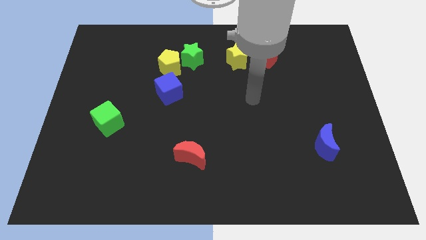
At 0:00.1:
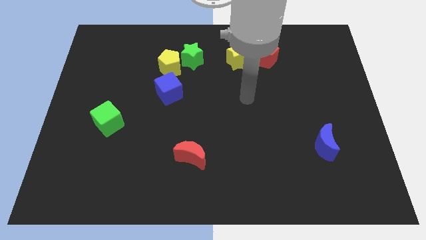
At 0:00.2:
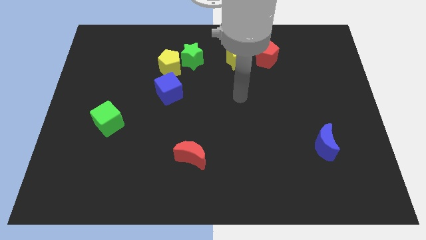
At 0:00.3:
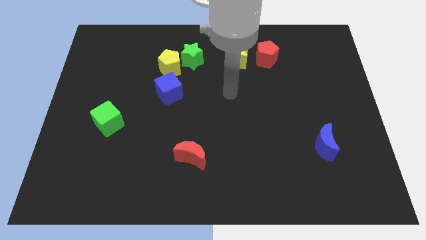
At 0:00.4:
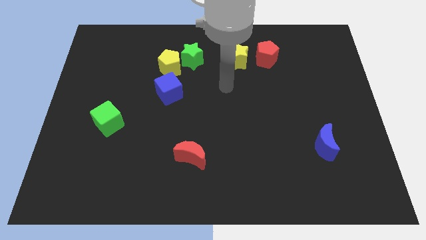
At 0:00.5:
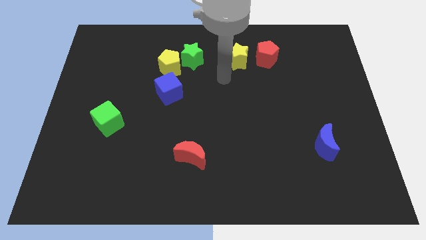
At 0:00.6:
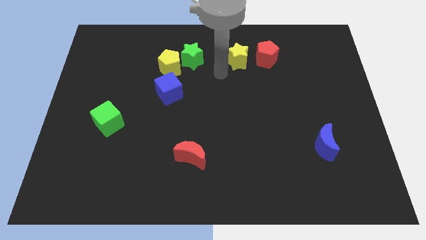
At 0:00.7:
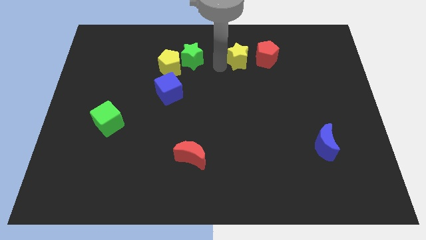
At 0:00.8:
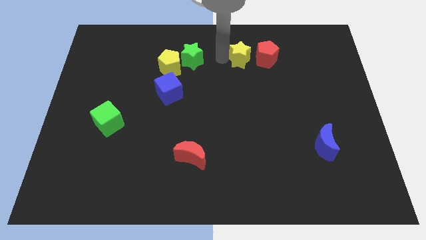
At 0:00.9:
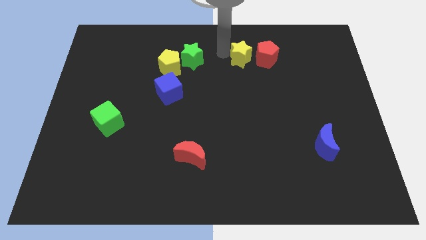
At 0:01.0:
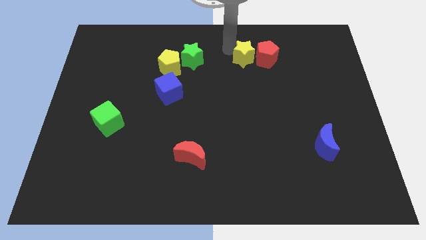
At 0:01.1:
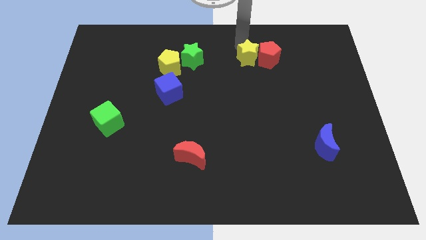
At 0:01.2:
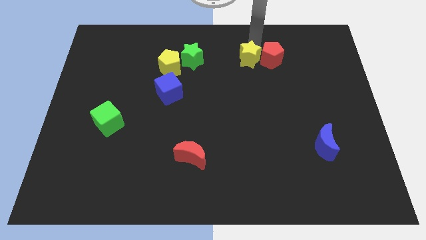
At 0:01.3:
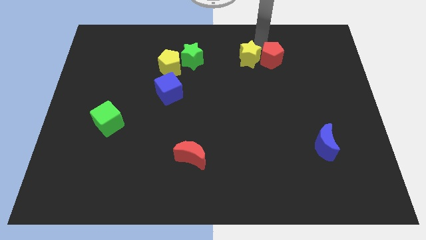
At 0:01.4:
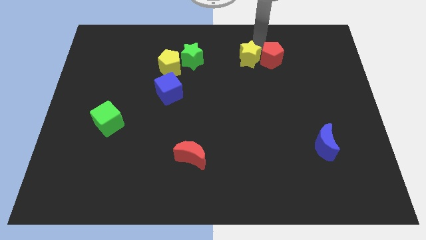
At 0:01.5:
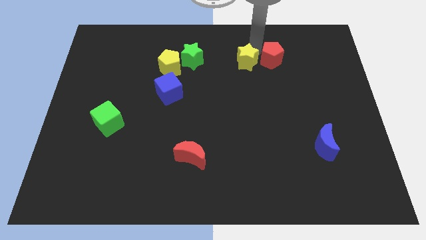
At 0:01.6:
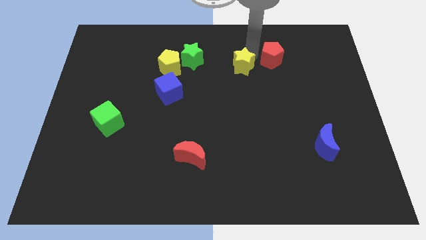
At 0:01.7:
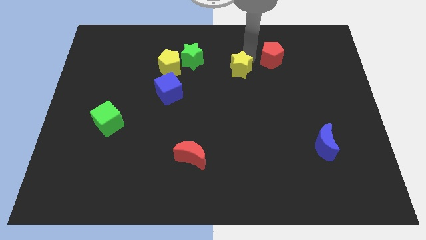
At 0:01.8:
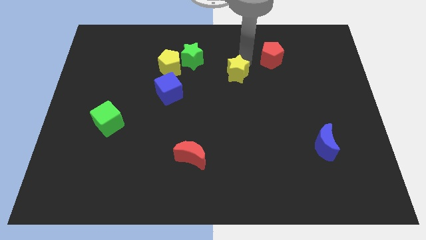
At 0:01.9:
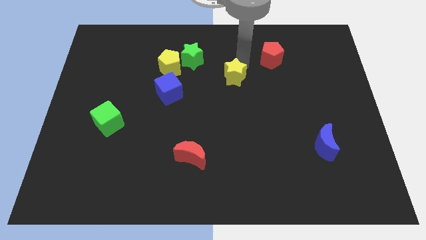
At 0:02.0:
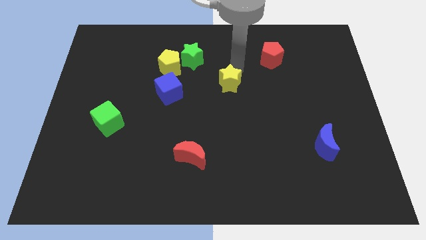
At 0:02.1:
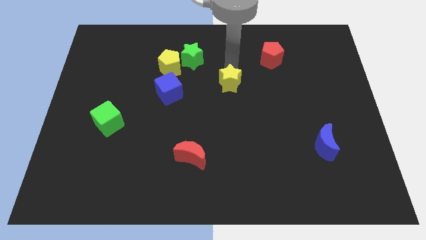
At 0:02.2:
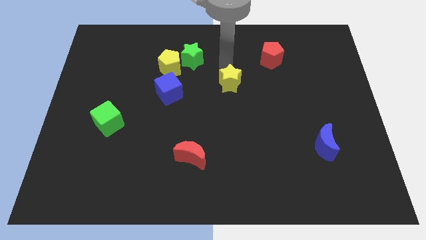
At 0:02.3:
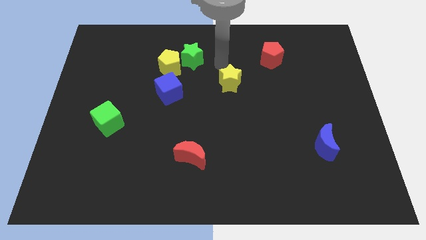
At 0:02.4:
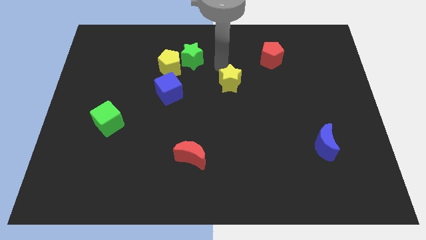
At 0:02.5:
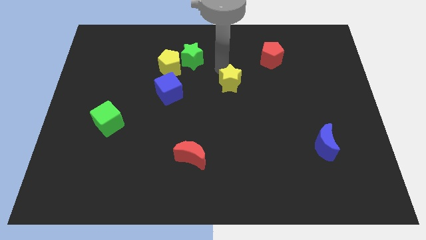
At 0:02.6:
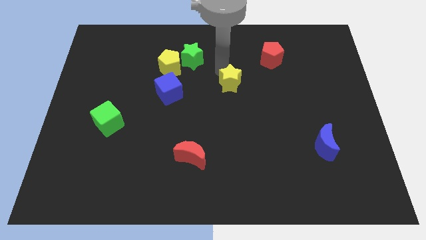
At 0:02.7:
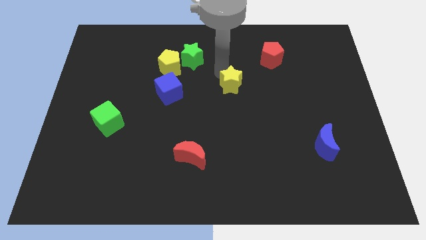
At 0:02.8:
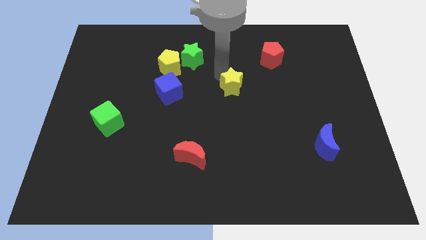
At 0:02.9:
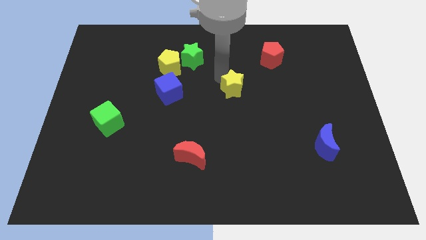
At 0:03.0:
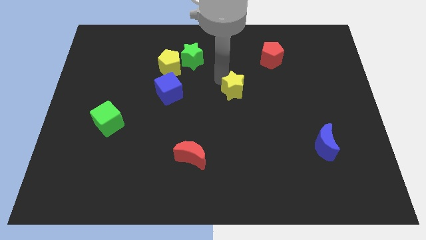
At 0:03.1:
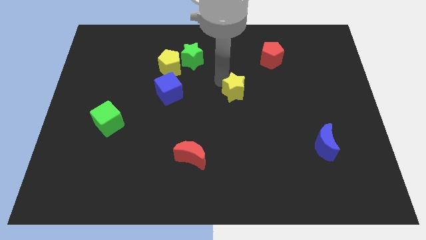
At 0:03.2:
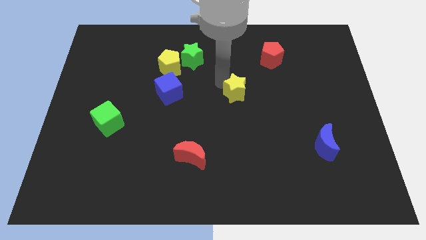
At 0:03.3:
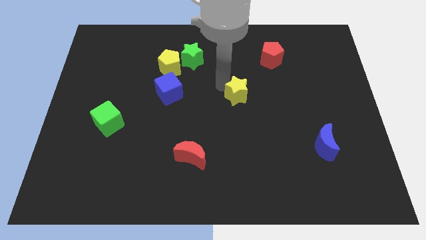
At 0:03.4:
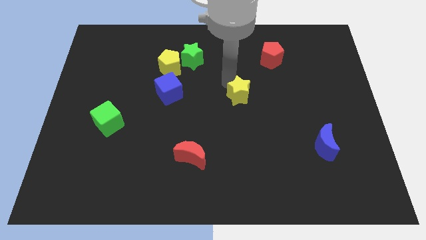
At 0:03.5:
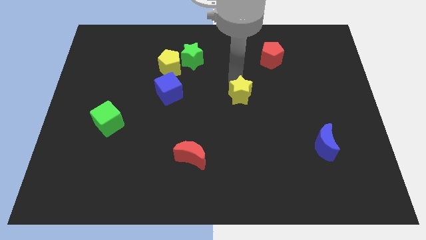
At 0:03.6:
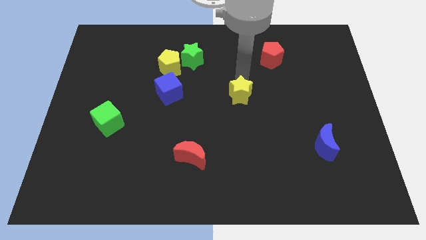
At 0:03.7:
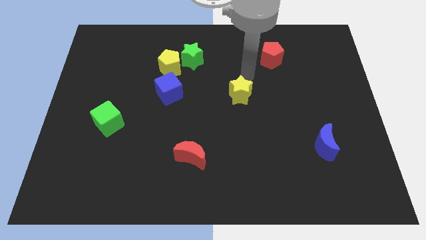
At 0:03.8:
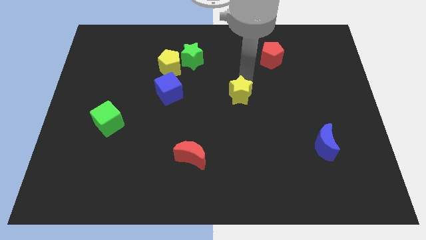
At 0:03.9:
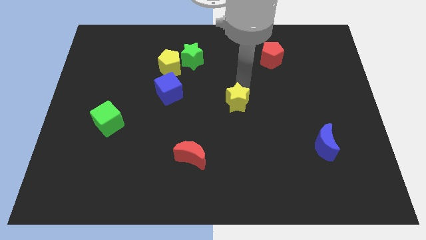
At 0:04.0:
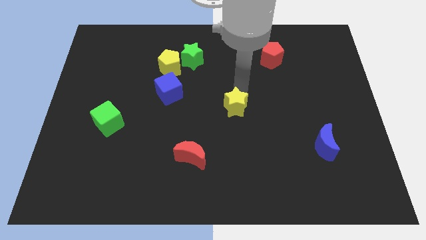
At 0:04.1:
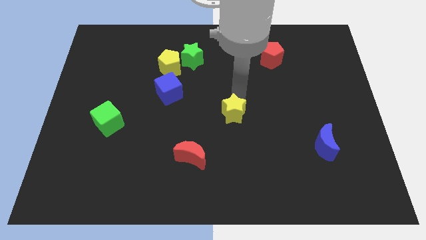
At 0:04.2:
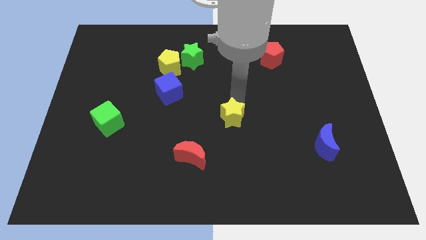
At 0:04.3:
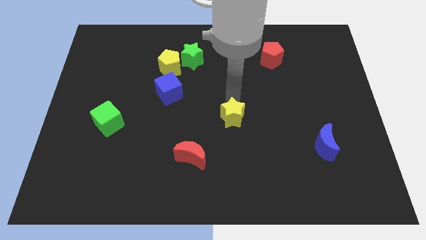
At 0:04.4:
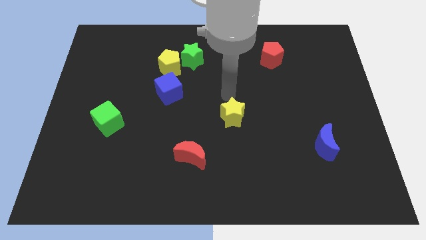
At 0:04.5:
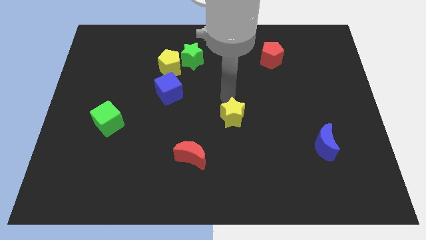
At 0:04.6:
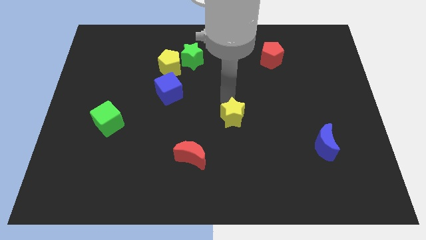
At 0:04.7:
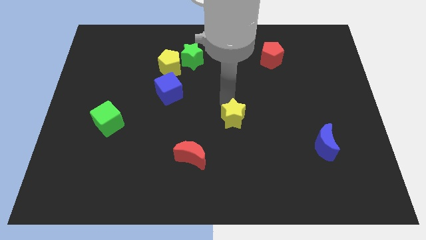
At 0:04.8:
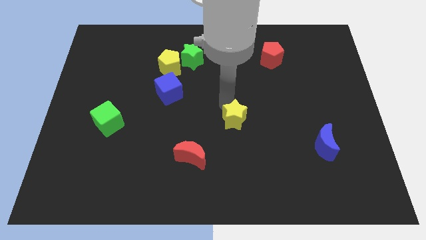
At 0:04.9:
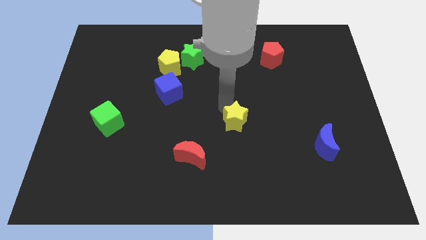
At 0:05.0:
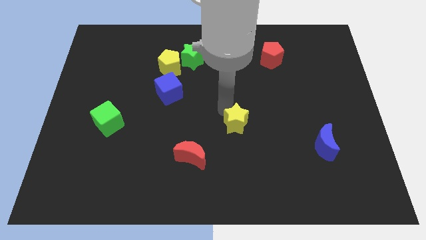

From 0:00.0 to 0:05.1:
push the yellow star down

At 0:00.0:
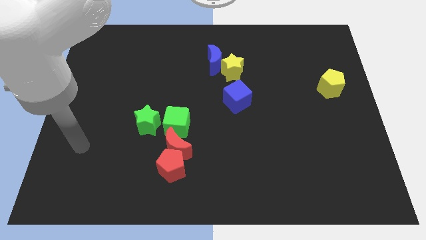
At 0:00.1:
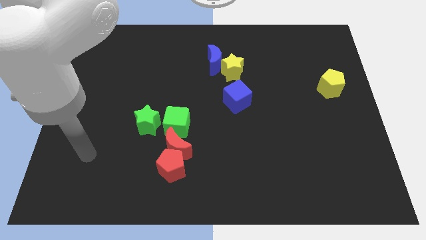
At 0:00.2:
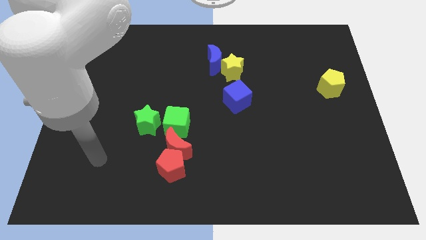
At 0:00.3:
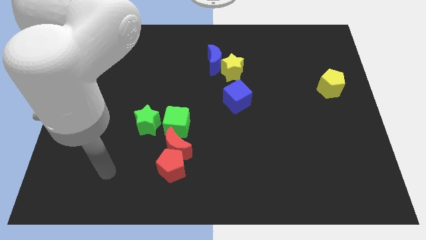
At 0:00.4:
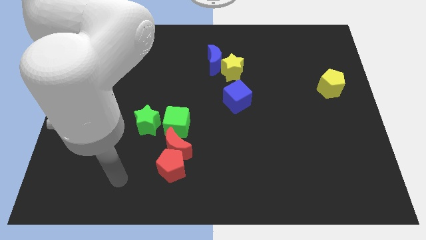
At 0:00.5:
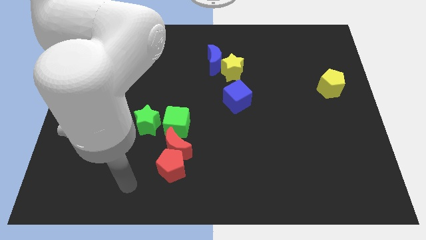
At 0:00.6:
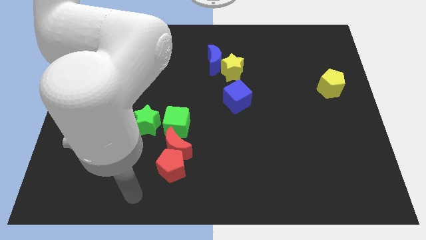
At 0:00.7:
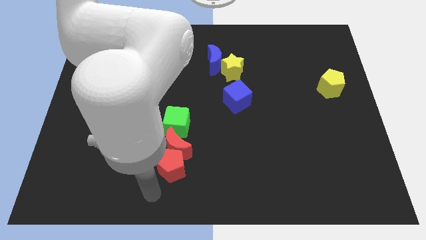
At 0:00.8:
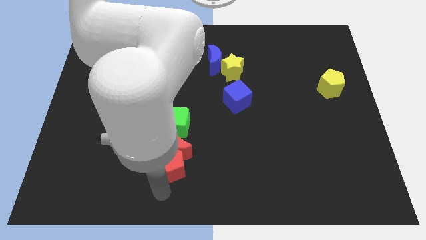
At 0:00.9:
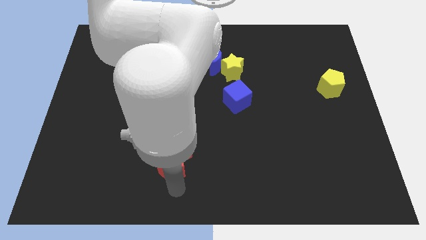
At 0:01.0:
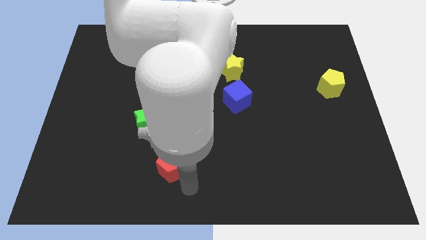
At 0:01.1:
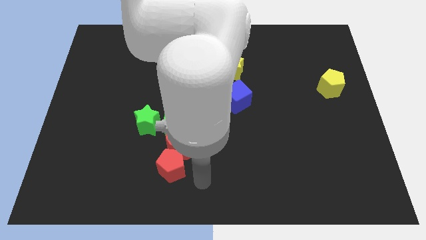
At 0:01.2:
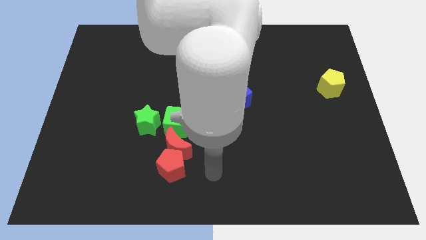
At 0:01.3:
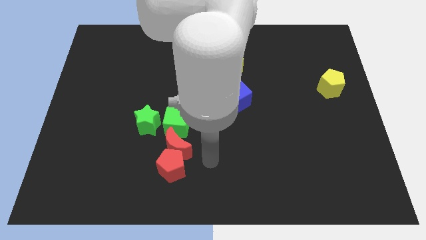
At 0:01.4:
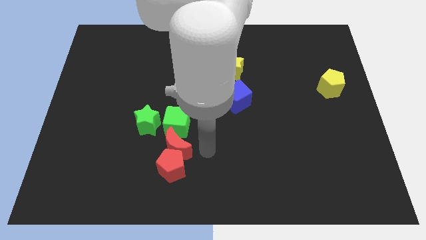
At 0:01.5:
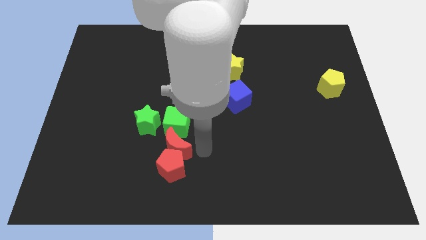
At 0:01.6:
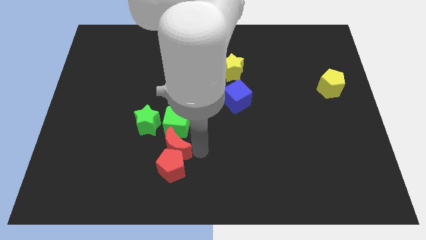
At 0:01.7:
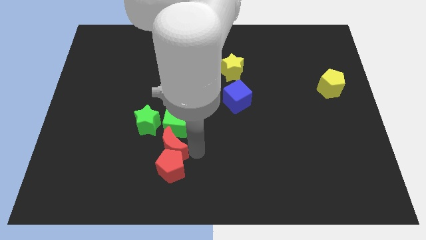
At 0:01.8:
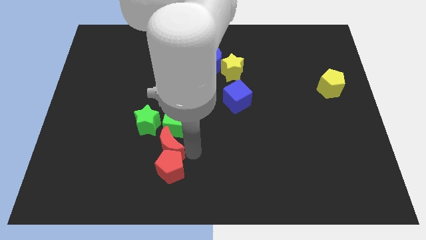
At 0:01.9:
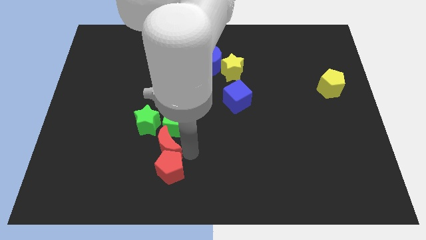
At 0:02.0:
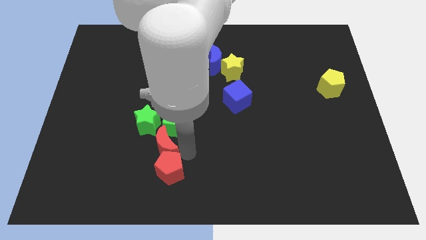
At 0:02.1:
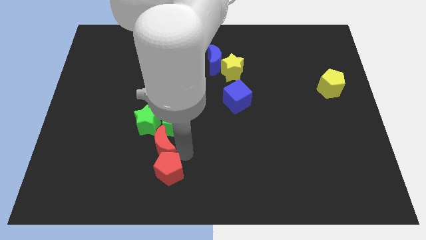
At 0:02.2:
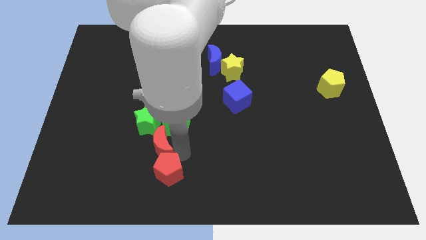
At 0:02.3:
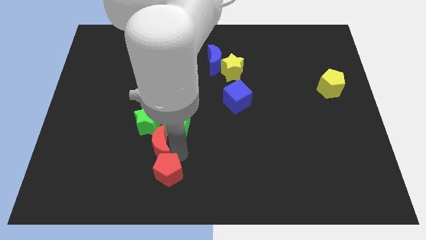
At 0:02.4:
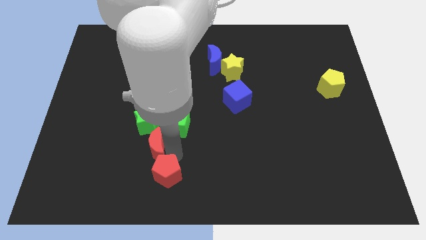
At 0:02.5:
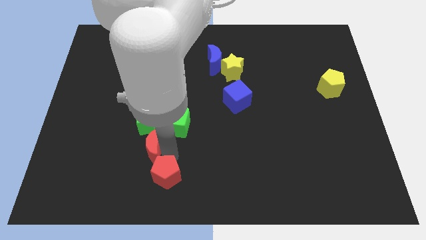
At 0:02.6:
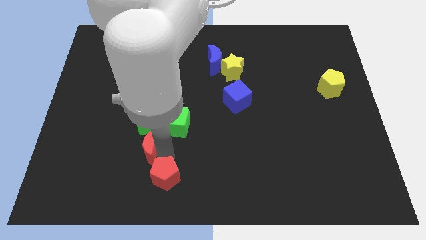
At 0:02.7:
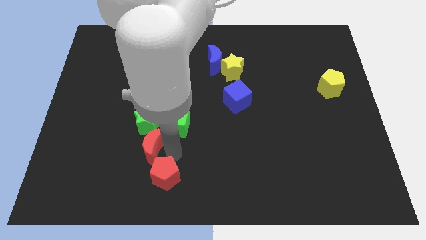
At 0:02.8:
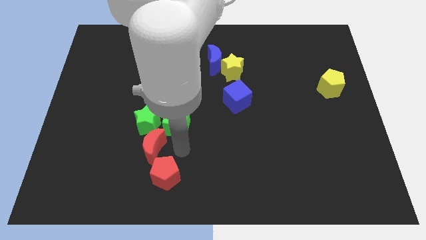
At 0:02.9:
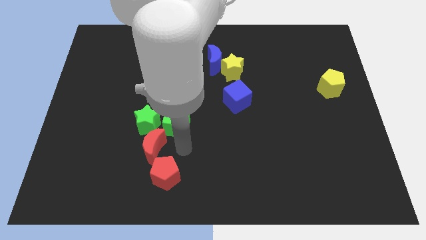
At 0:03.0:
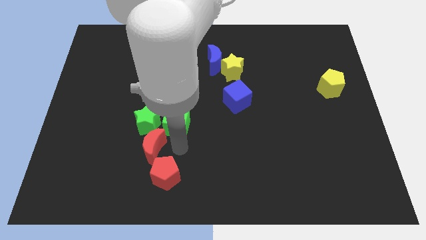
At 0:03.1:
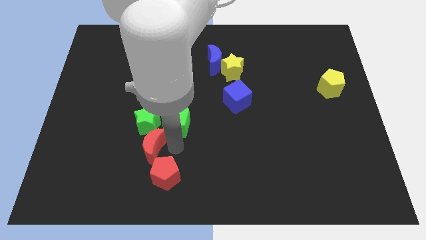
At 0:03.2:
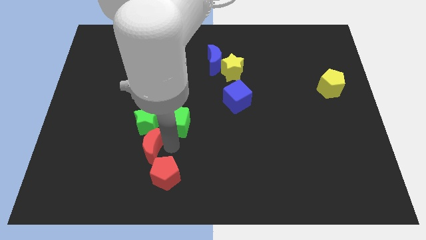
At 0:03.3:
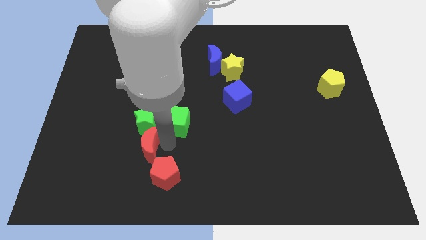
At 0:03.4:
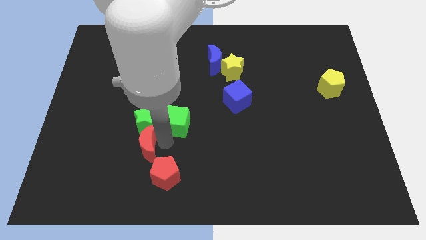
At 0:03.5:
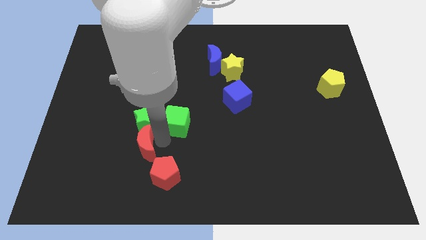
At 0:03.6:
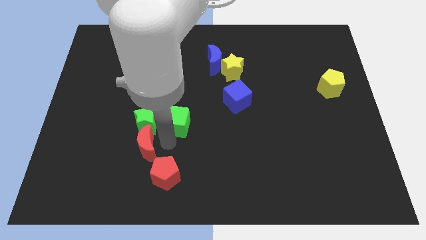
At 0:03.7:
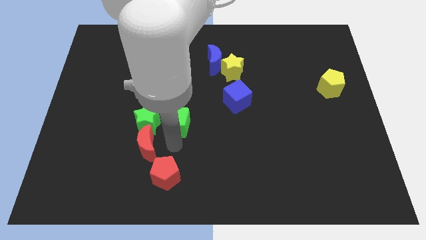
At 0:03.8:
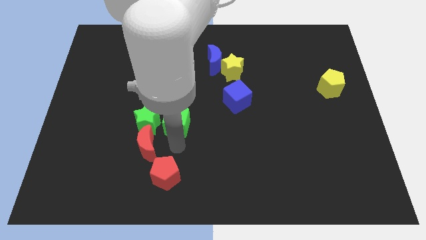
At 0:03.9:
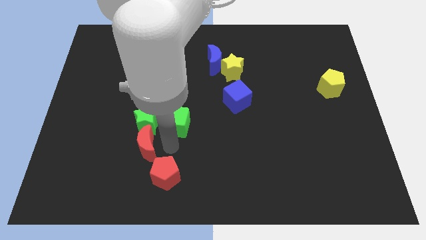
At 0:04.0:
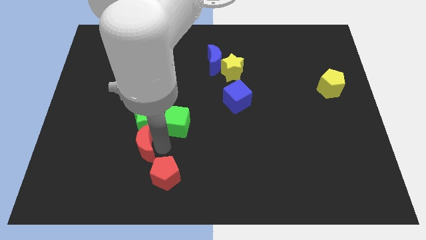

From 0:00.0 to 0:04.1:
push the red moon left slightly
